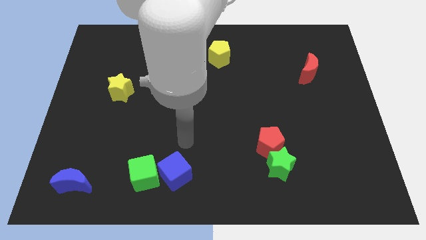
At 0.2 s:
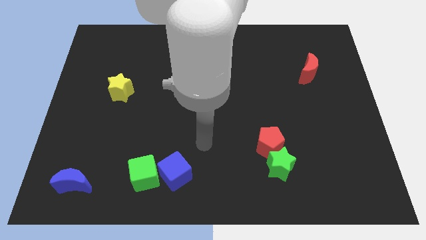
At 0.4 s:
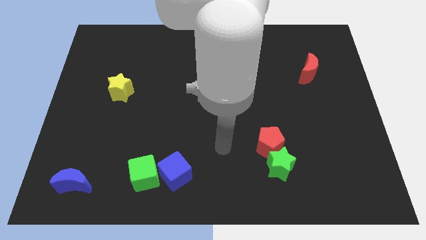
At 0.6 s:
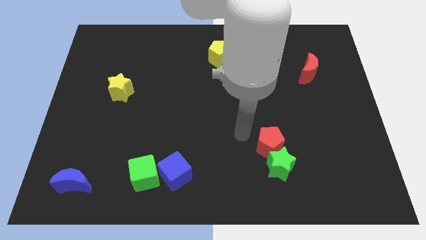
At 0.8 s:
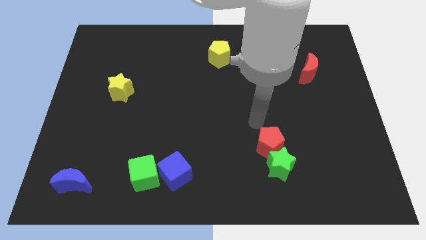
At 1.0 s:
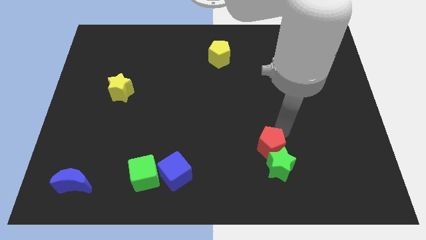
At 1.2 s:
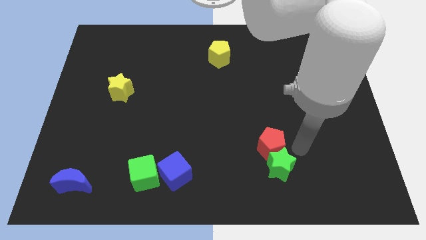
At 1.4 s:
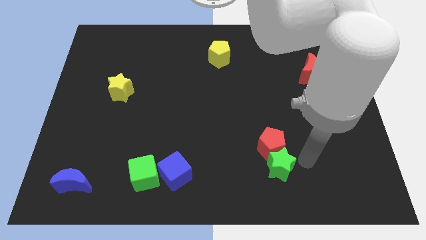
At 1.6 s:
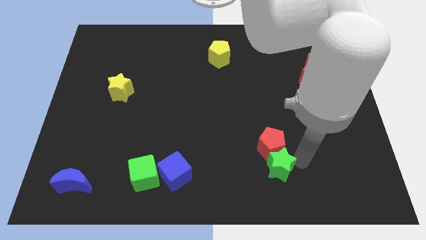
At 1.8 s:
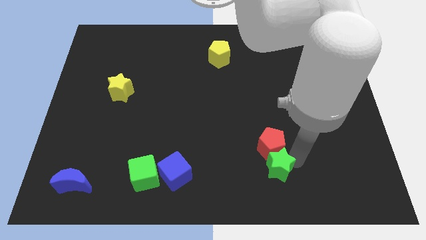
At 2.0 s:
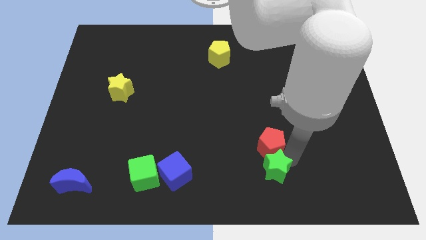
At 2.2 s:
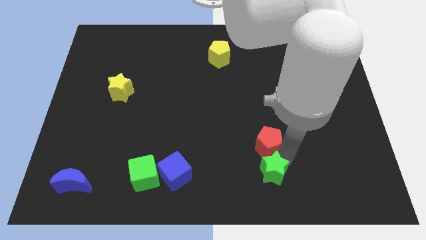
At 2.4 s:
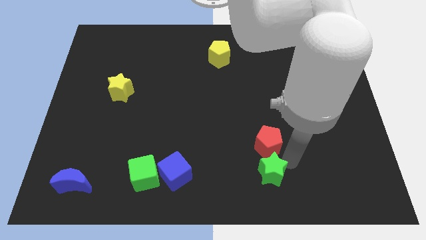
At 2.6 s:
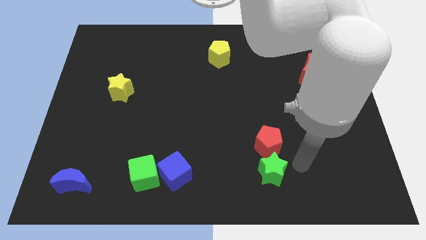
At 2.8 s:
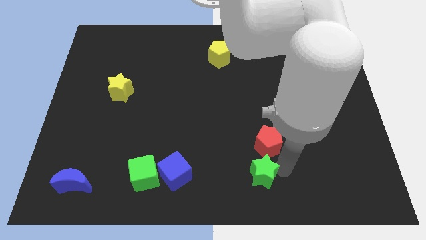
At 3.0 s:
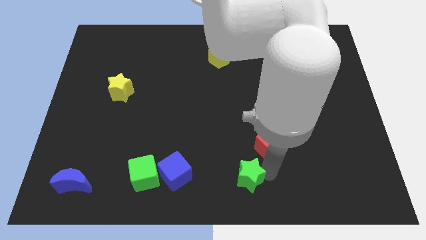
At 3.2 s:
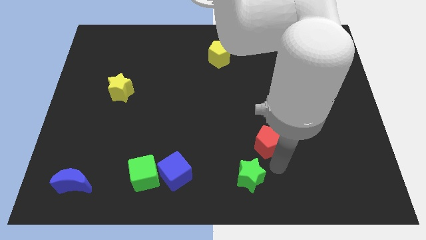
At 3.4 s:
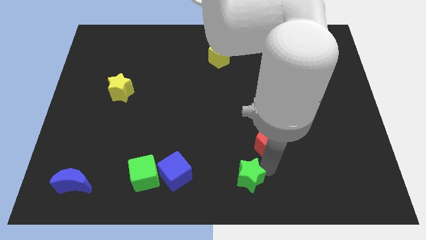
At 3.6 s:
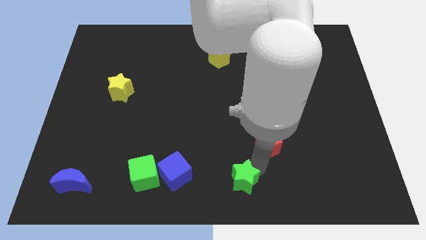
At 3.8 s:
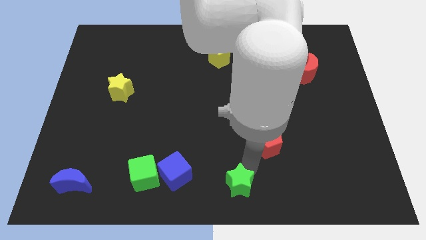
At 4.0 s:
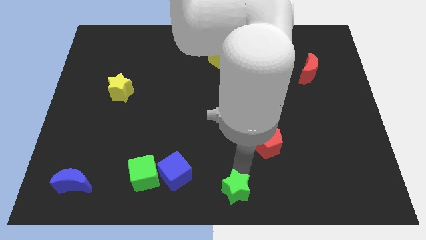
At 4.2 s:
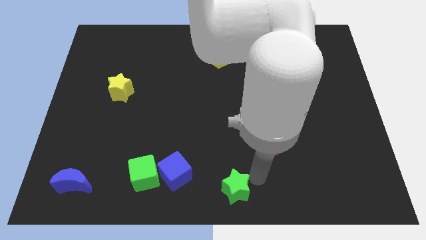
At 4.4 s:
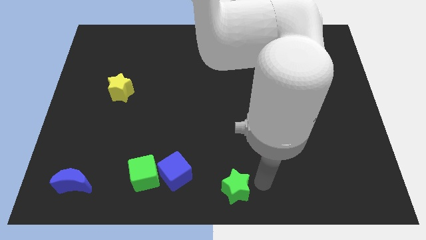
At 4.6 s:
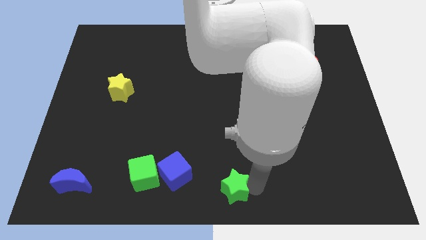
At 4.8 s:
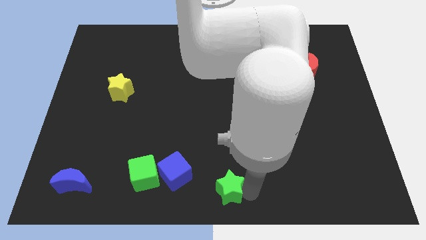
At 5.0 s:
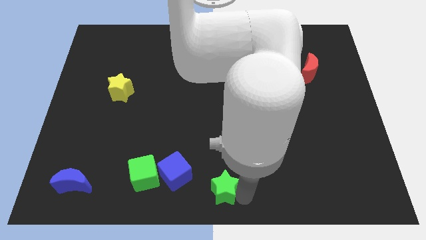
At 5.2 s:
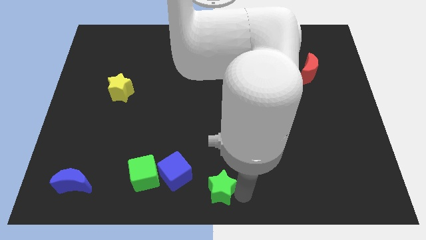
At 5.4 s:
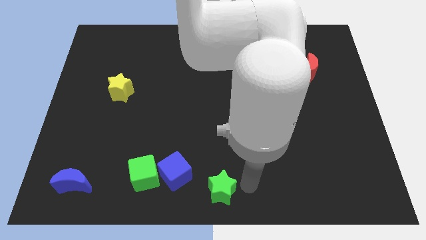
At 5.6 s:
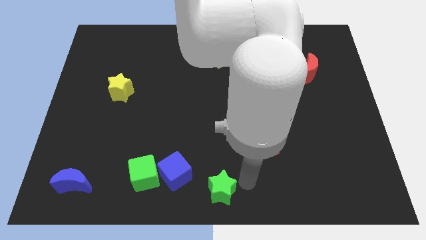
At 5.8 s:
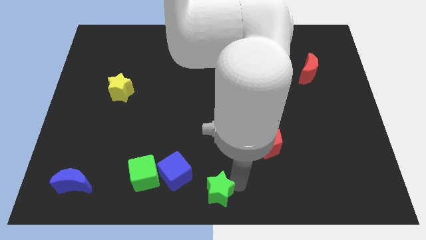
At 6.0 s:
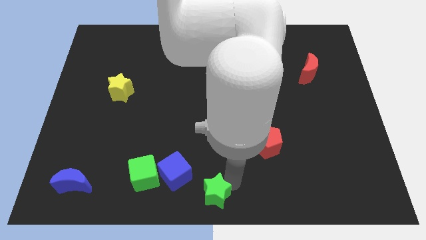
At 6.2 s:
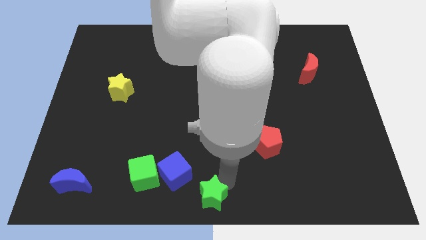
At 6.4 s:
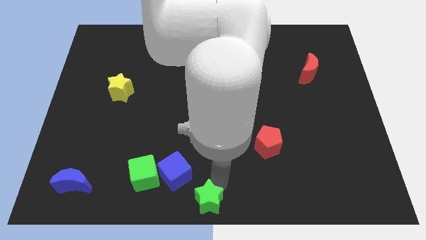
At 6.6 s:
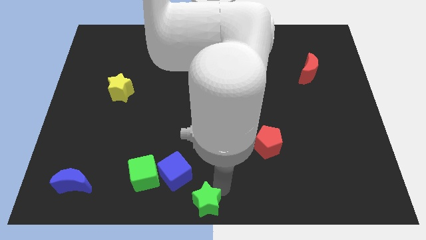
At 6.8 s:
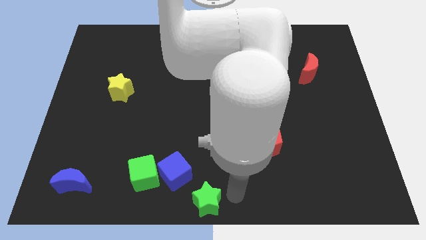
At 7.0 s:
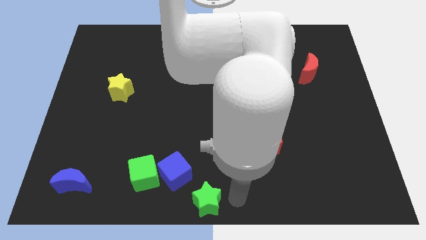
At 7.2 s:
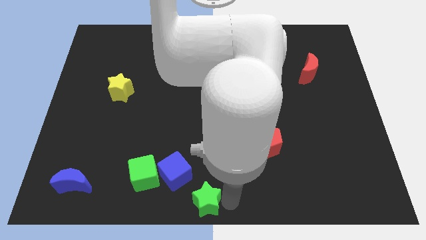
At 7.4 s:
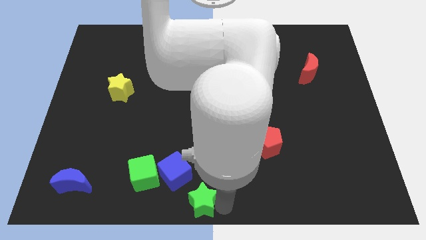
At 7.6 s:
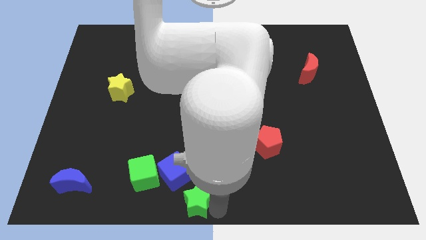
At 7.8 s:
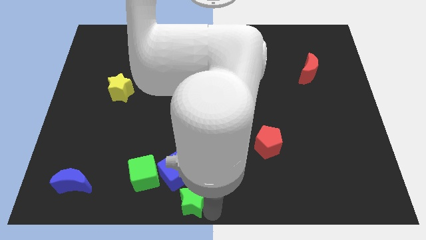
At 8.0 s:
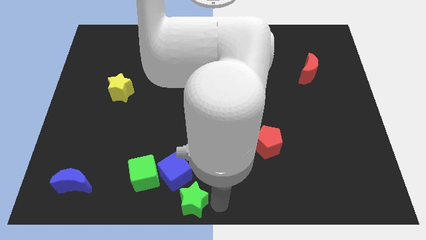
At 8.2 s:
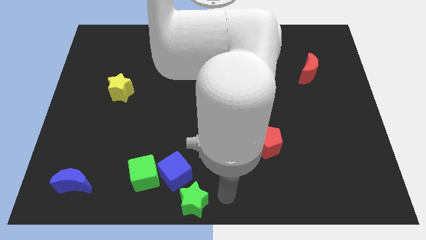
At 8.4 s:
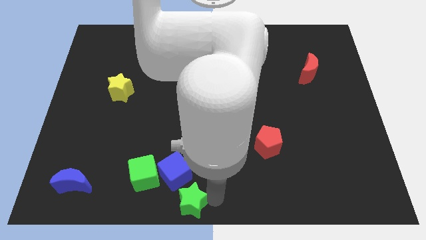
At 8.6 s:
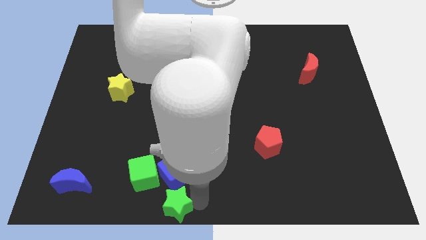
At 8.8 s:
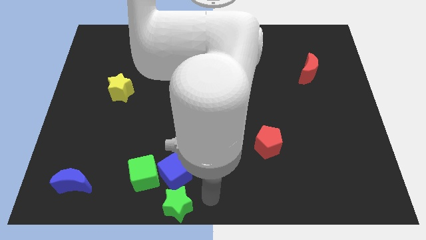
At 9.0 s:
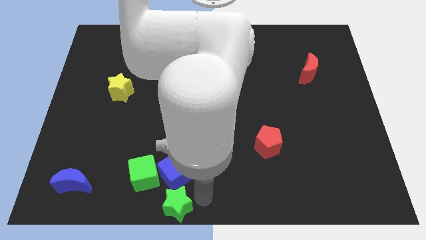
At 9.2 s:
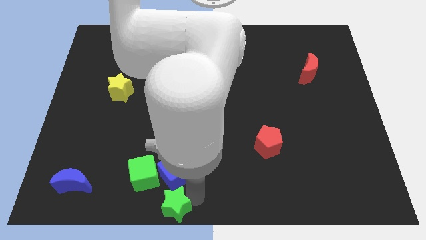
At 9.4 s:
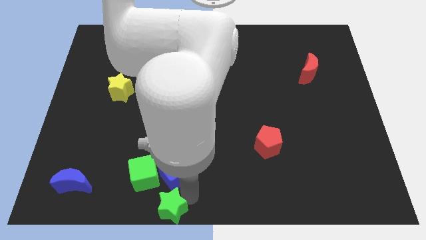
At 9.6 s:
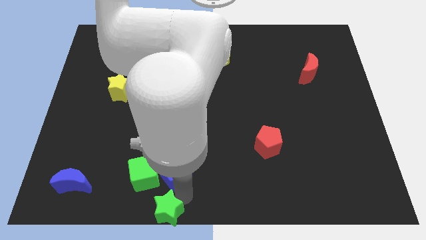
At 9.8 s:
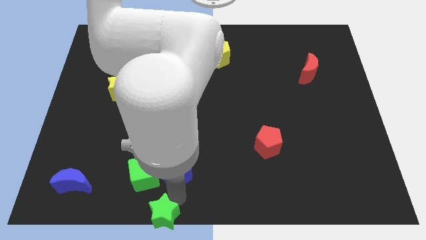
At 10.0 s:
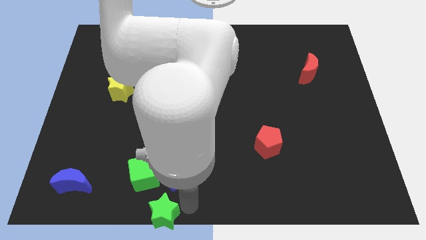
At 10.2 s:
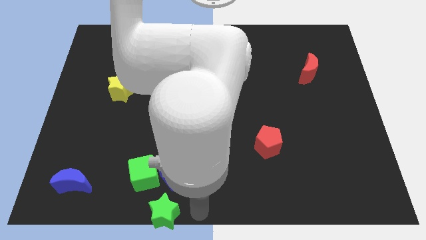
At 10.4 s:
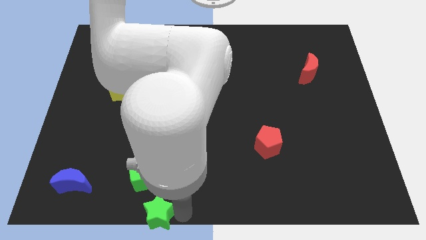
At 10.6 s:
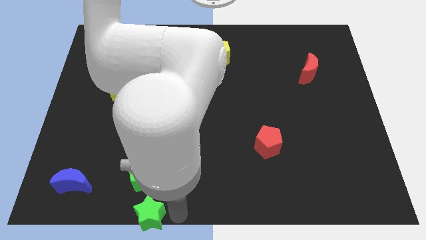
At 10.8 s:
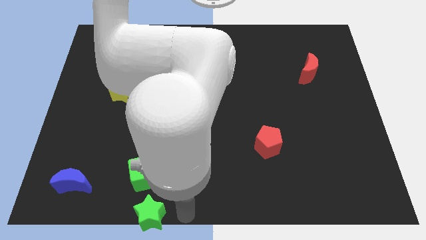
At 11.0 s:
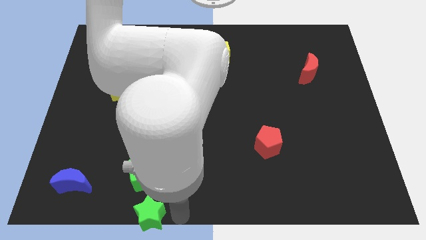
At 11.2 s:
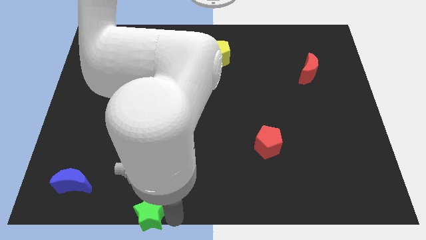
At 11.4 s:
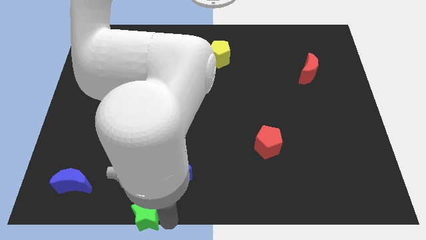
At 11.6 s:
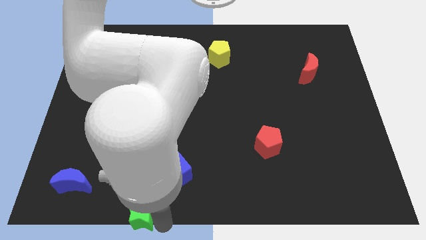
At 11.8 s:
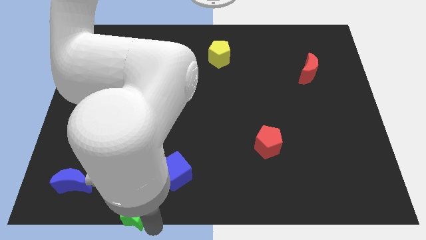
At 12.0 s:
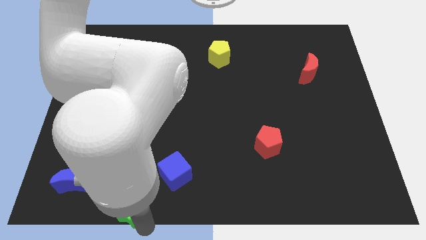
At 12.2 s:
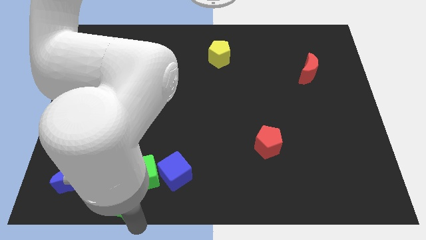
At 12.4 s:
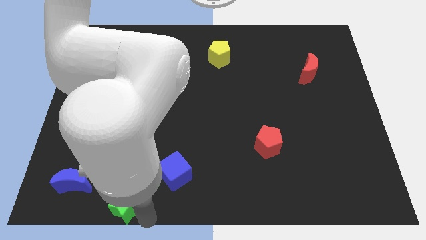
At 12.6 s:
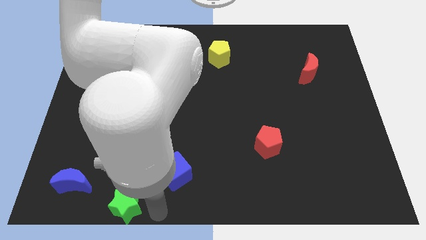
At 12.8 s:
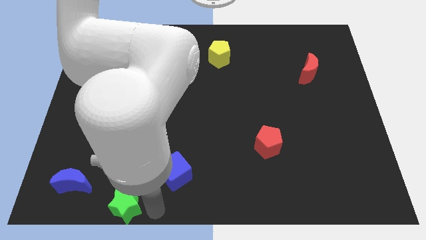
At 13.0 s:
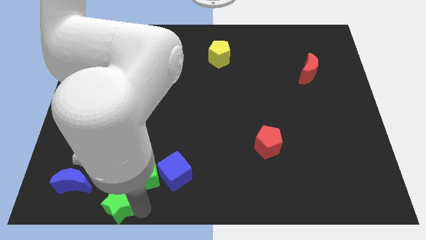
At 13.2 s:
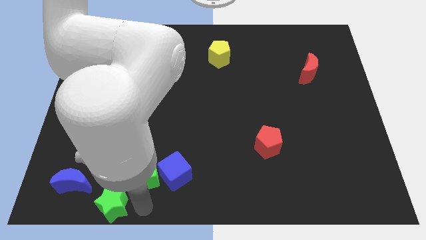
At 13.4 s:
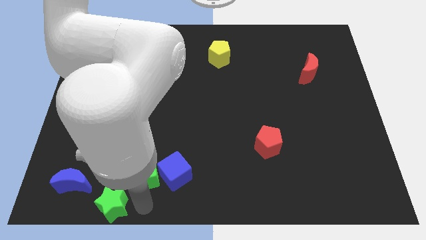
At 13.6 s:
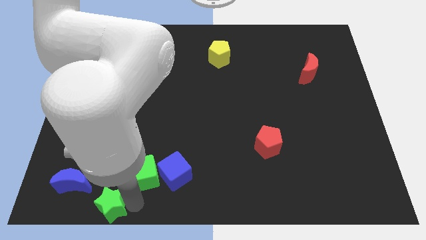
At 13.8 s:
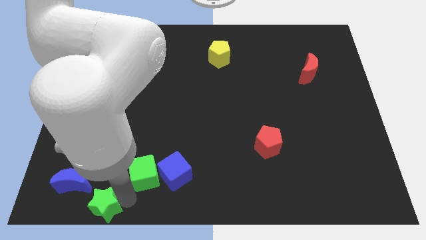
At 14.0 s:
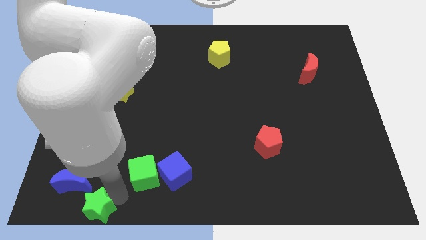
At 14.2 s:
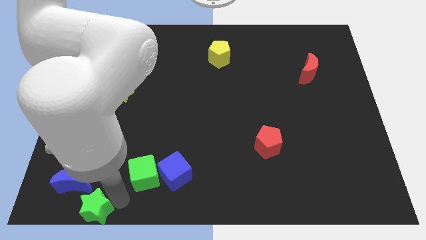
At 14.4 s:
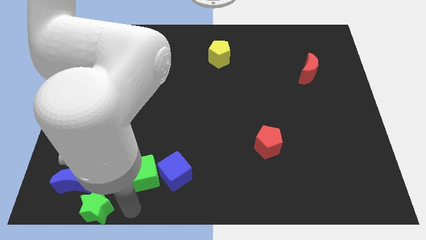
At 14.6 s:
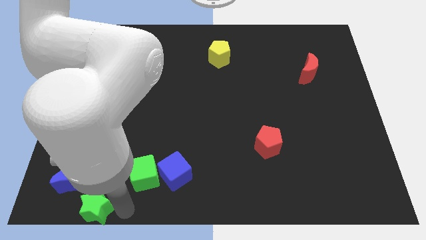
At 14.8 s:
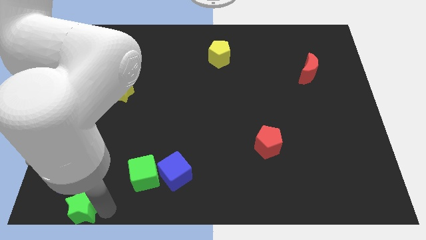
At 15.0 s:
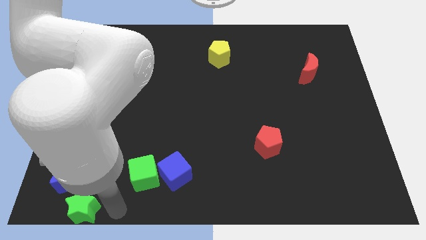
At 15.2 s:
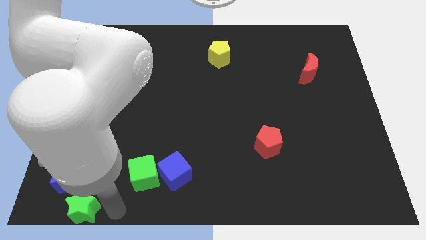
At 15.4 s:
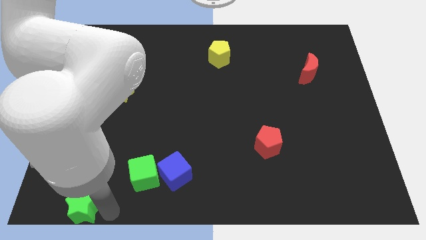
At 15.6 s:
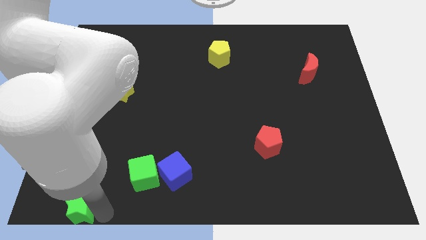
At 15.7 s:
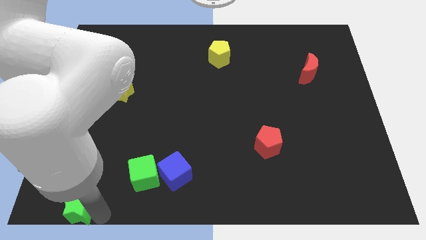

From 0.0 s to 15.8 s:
move the green star to the bottom left
